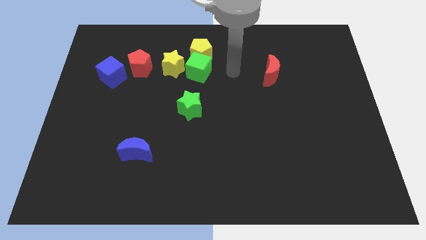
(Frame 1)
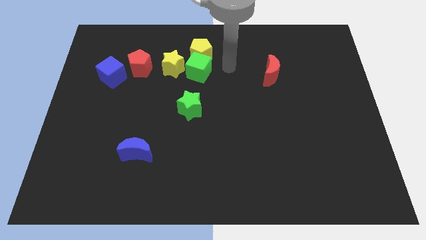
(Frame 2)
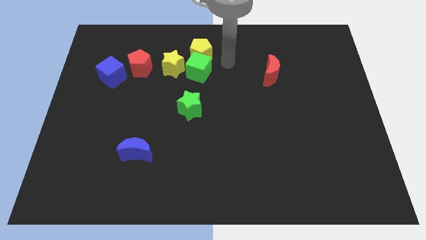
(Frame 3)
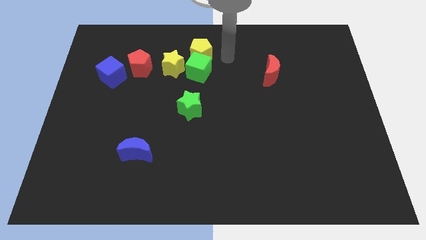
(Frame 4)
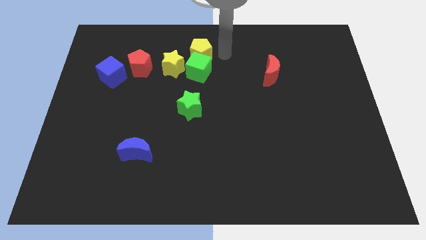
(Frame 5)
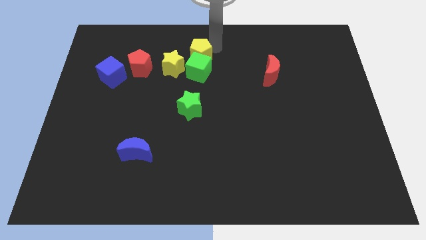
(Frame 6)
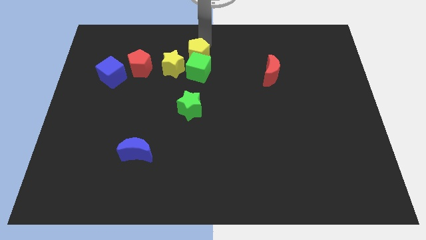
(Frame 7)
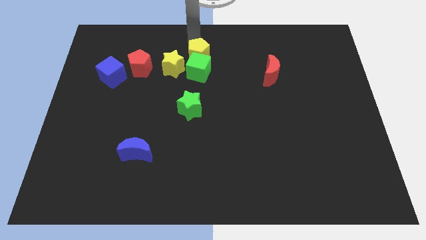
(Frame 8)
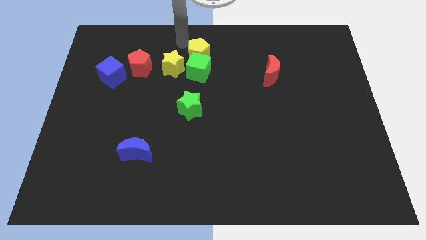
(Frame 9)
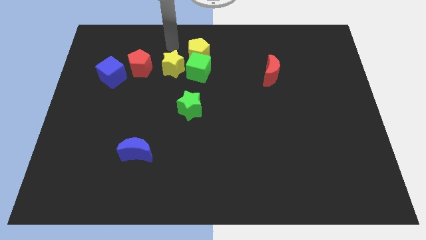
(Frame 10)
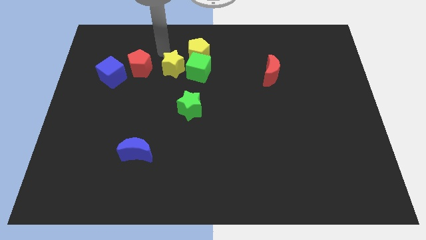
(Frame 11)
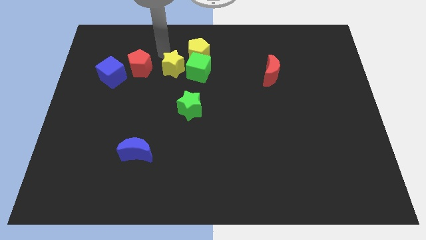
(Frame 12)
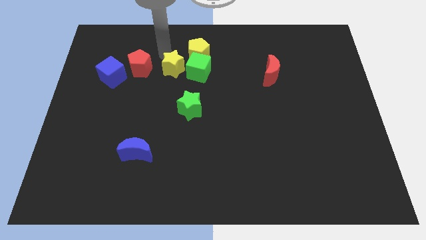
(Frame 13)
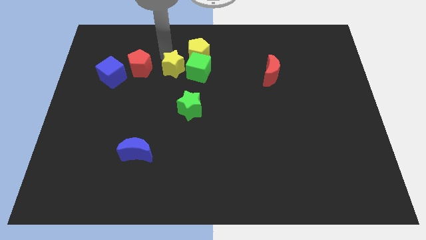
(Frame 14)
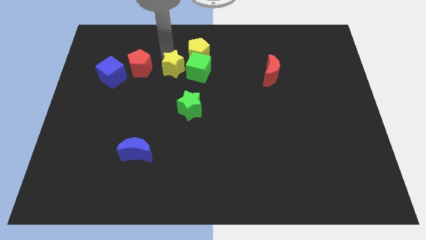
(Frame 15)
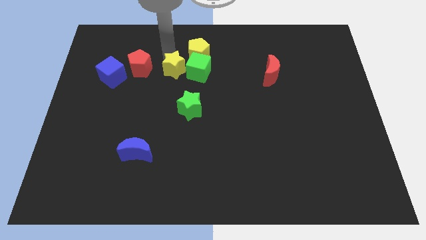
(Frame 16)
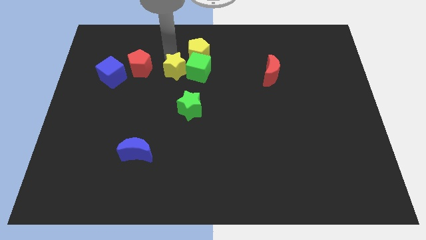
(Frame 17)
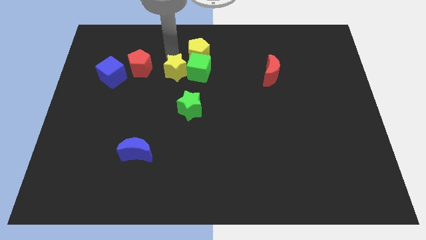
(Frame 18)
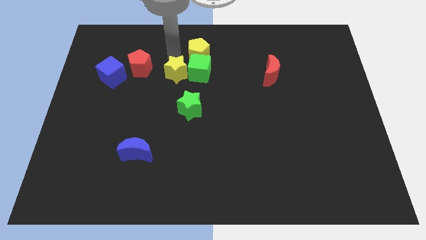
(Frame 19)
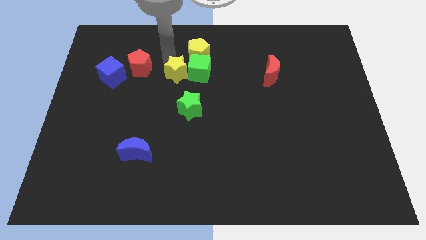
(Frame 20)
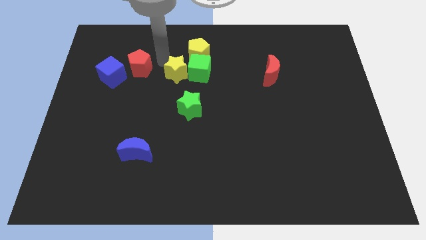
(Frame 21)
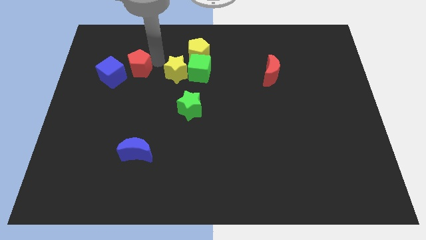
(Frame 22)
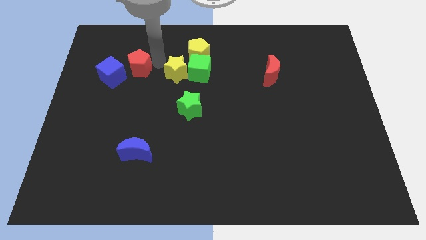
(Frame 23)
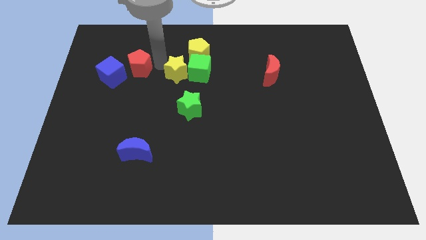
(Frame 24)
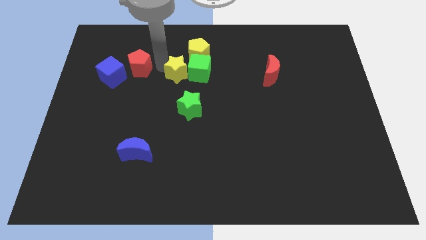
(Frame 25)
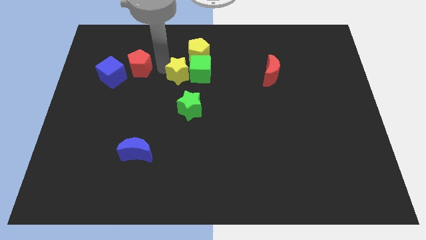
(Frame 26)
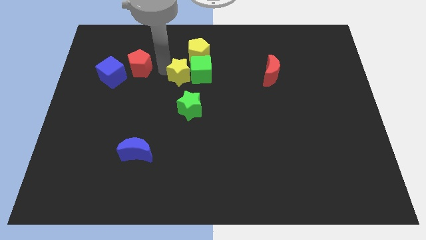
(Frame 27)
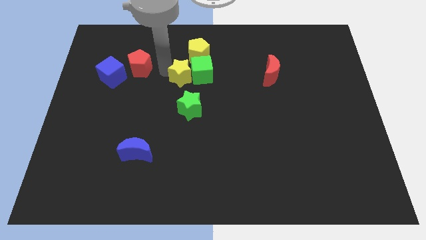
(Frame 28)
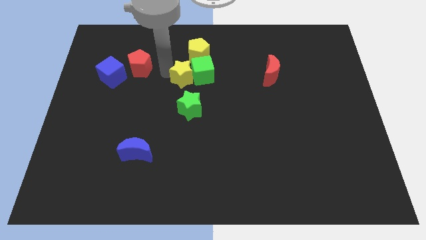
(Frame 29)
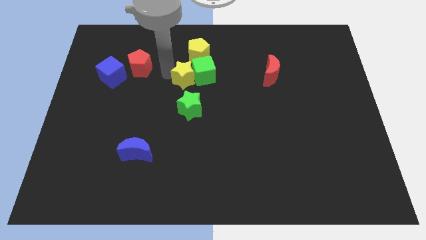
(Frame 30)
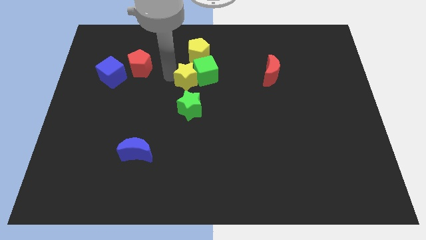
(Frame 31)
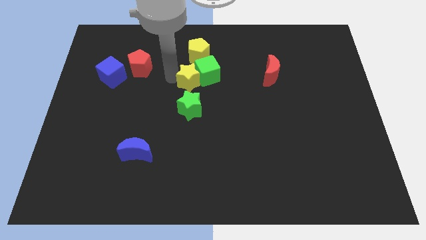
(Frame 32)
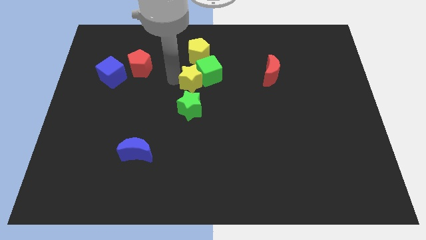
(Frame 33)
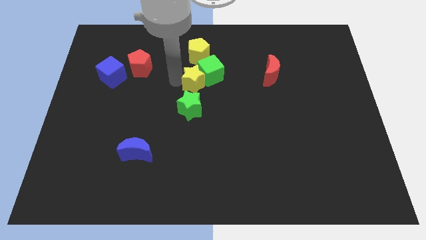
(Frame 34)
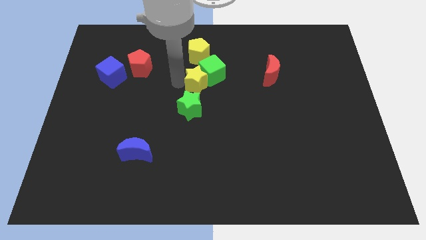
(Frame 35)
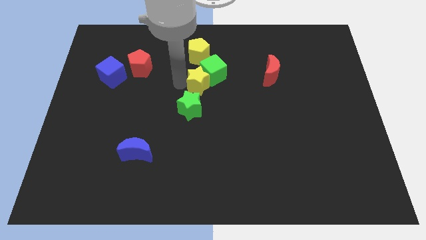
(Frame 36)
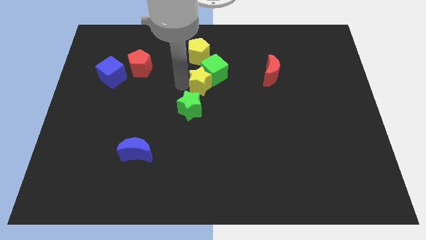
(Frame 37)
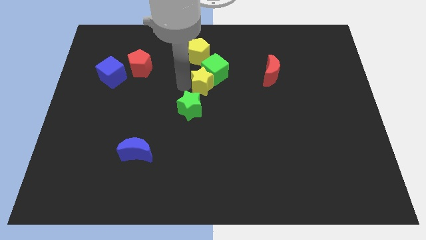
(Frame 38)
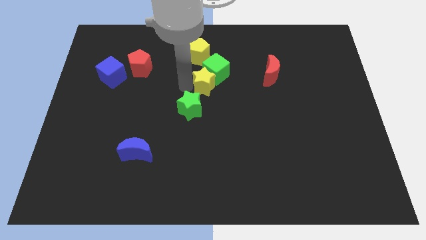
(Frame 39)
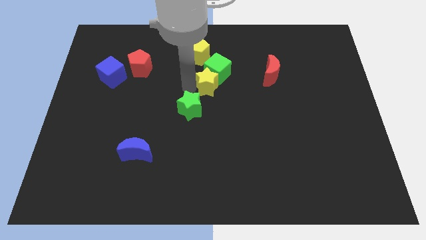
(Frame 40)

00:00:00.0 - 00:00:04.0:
slide the yellow star right slightly

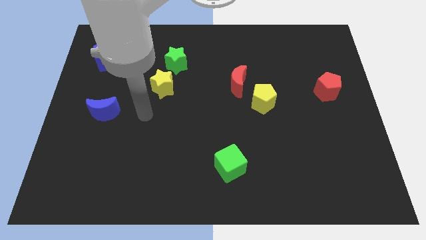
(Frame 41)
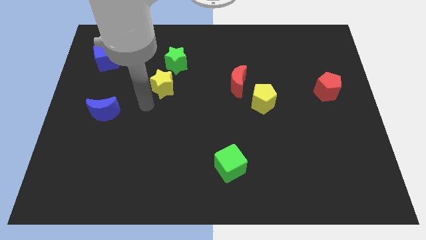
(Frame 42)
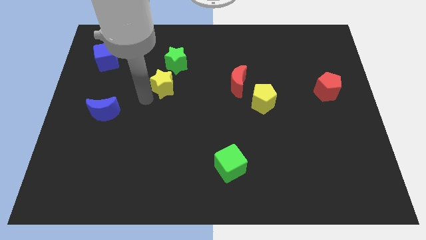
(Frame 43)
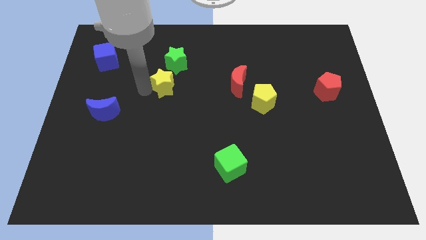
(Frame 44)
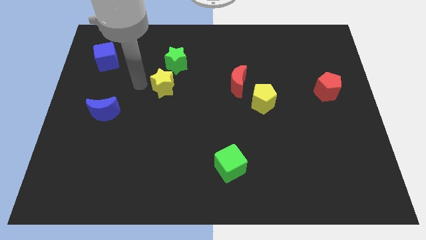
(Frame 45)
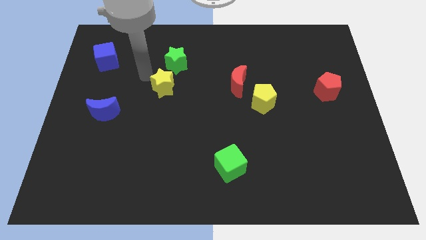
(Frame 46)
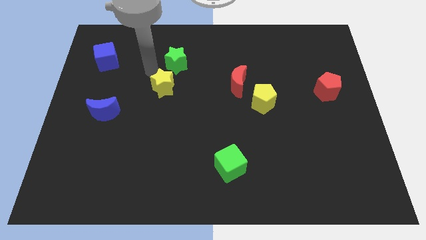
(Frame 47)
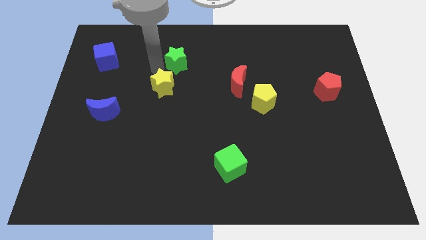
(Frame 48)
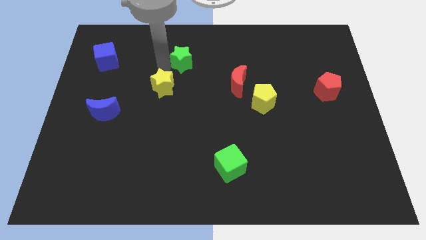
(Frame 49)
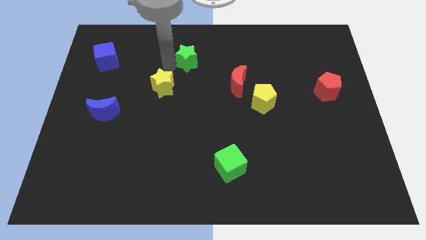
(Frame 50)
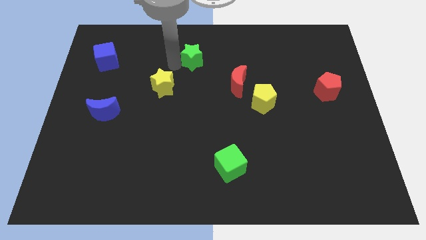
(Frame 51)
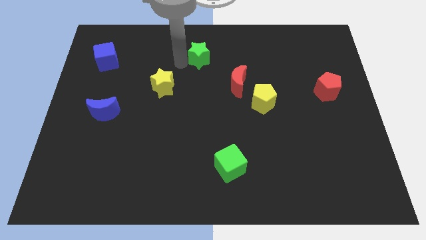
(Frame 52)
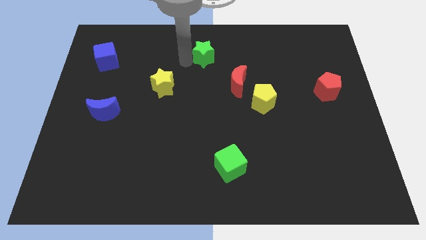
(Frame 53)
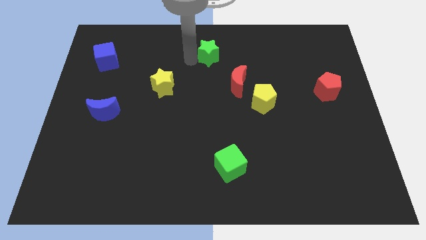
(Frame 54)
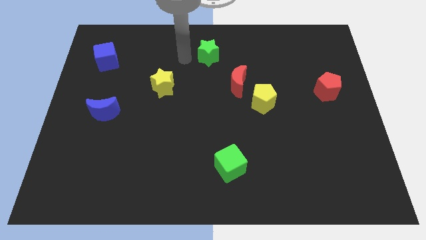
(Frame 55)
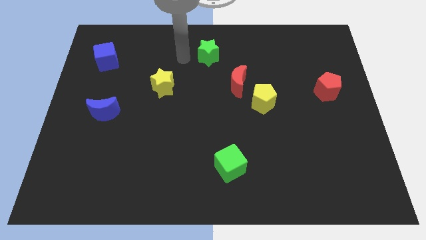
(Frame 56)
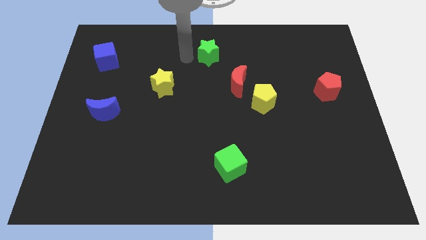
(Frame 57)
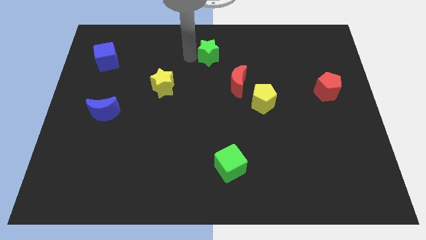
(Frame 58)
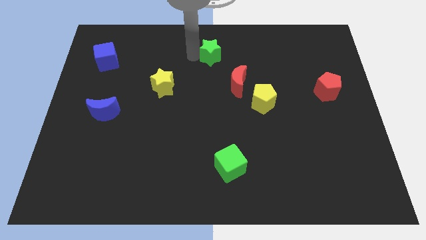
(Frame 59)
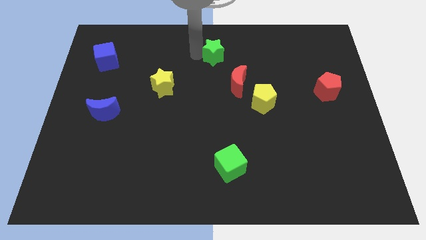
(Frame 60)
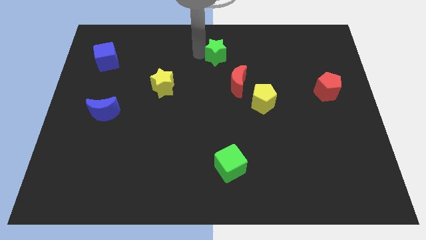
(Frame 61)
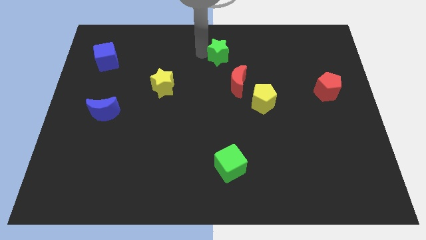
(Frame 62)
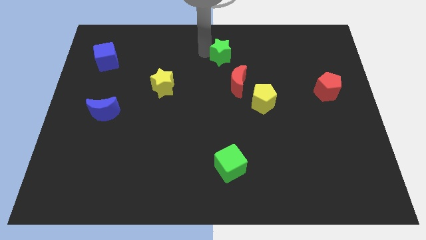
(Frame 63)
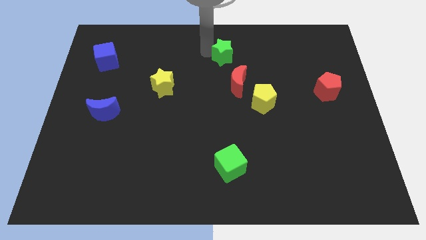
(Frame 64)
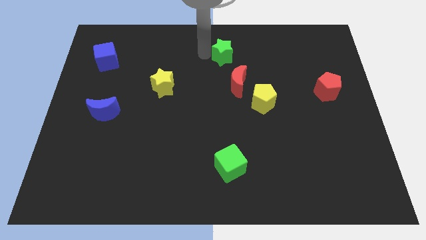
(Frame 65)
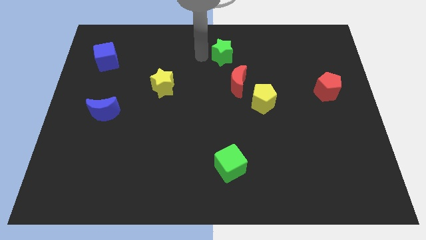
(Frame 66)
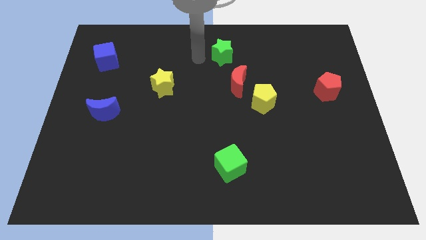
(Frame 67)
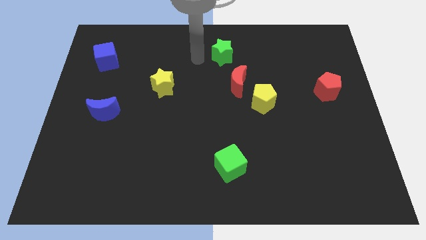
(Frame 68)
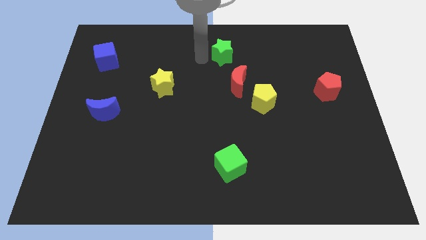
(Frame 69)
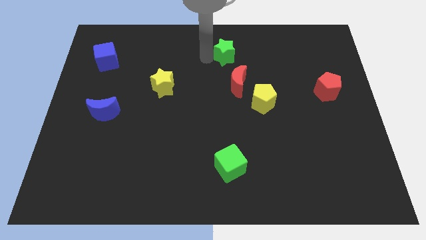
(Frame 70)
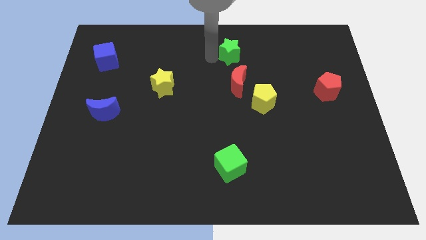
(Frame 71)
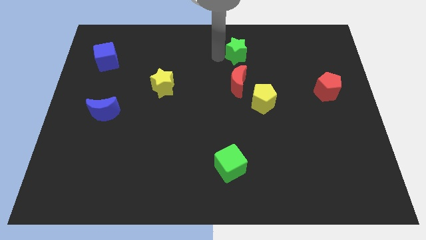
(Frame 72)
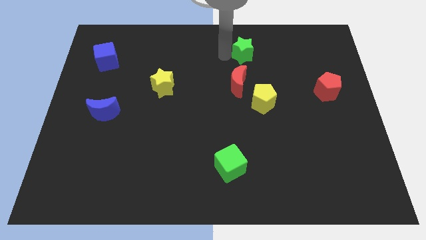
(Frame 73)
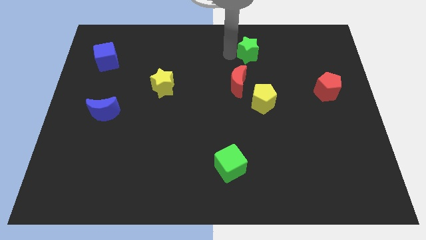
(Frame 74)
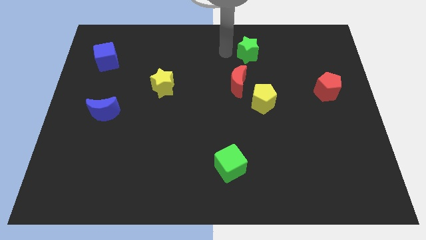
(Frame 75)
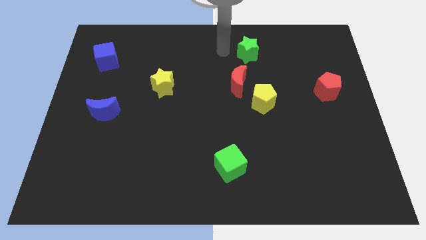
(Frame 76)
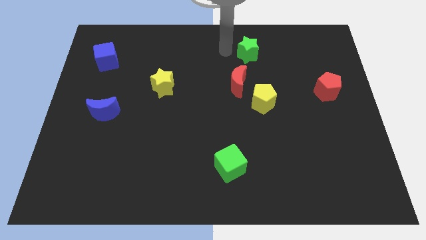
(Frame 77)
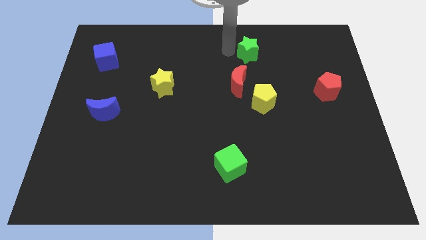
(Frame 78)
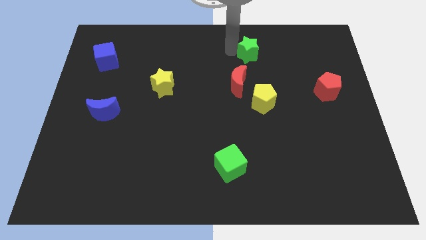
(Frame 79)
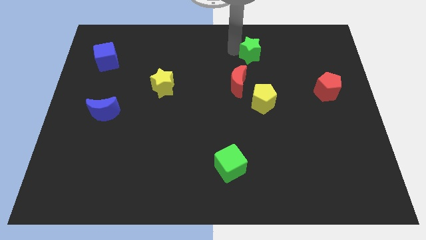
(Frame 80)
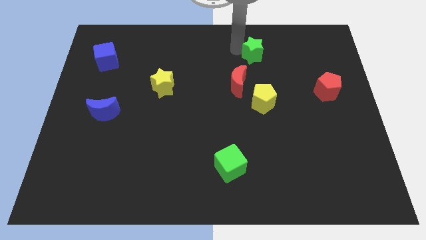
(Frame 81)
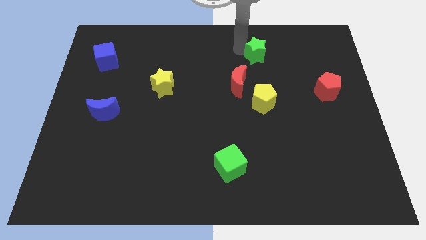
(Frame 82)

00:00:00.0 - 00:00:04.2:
push the green star to the right
